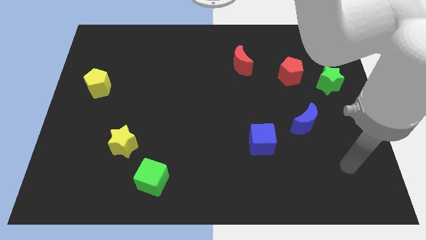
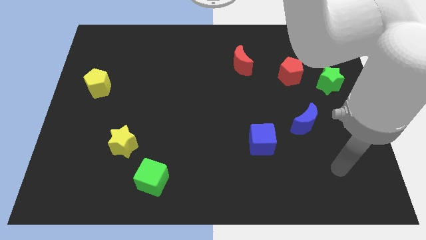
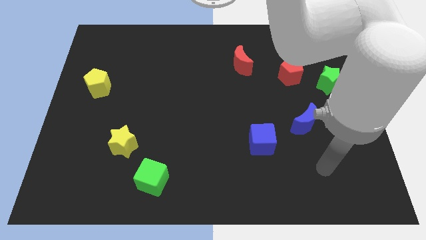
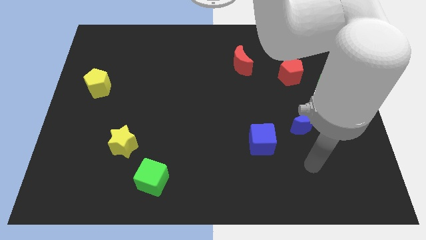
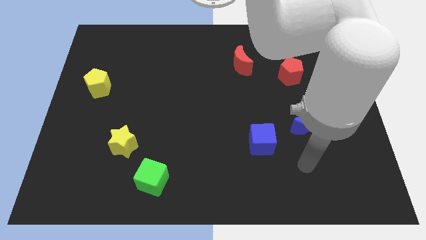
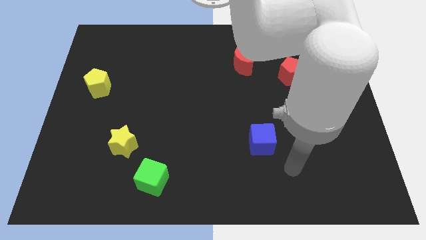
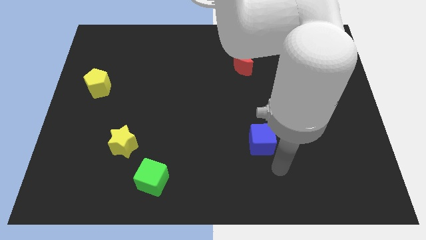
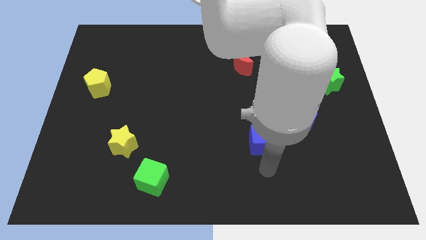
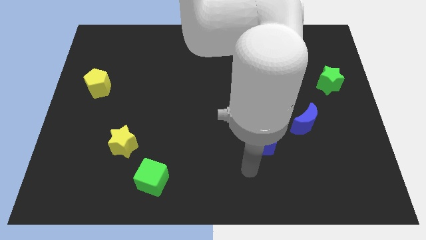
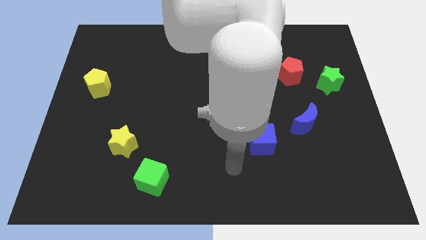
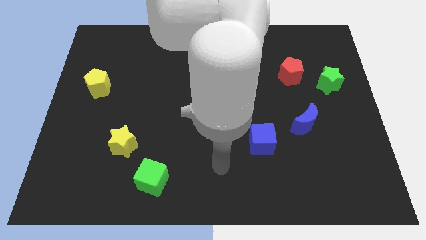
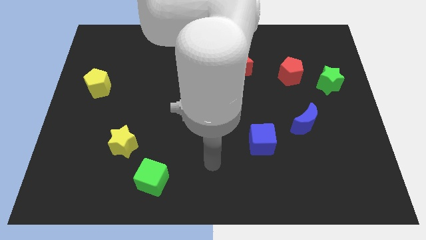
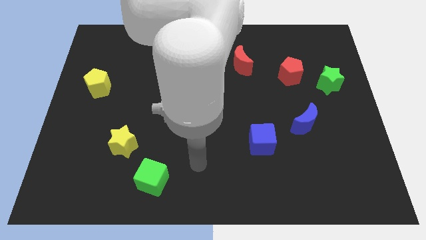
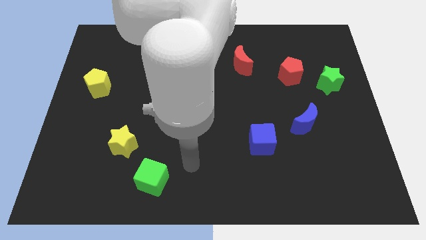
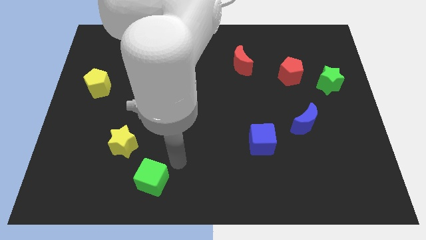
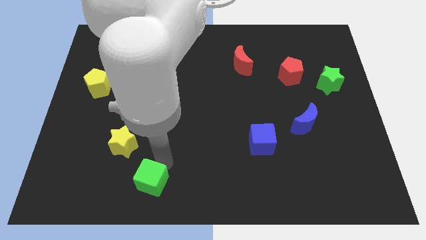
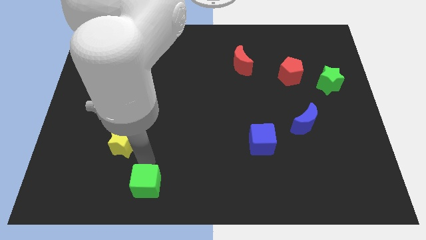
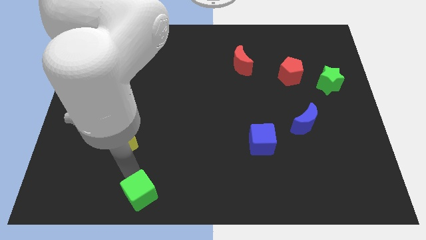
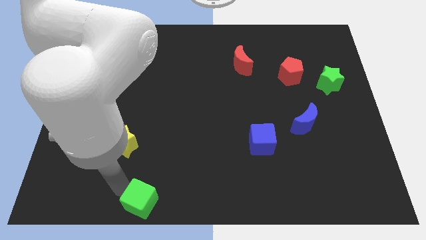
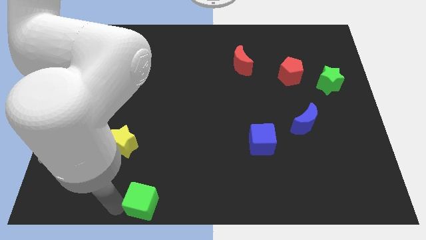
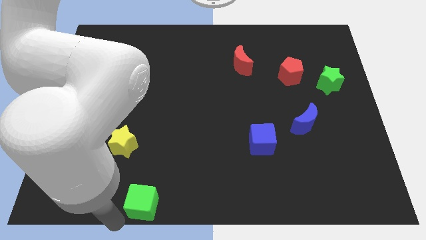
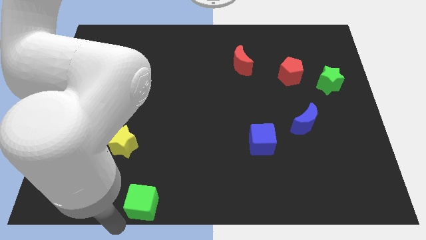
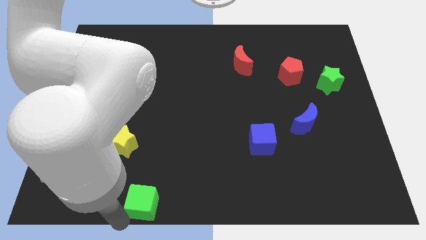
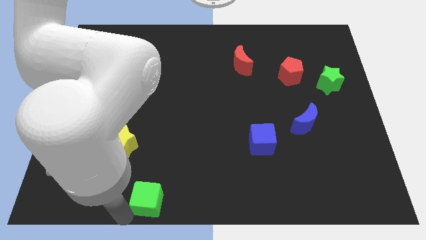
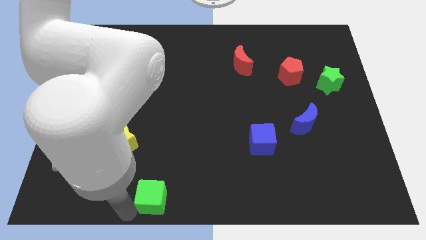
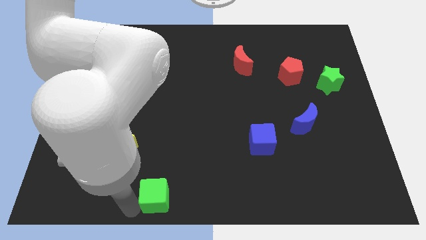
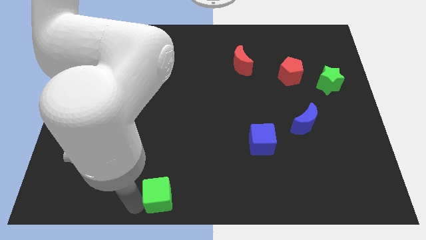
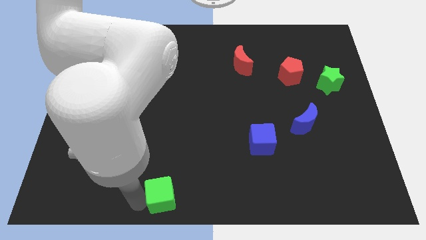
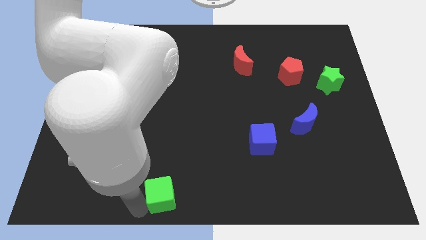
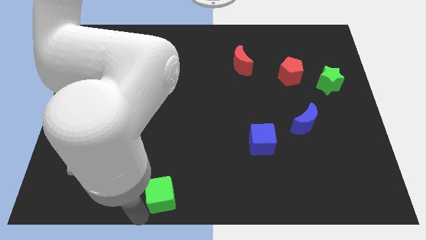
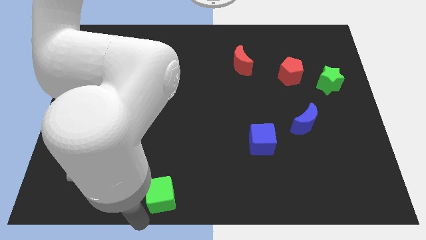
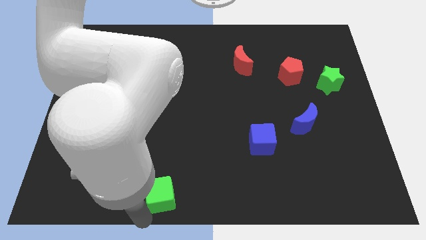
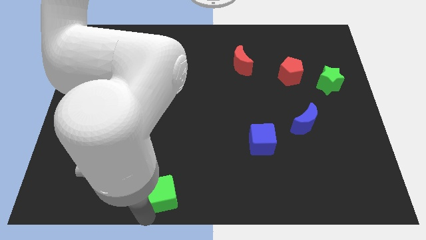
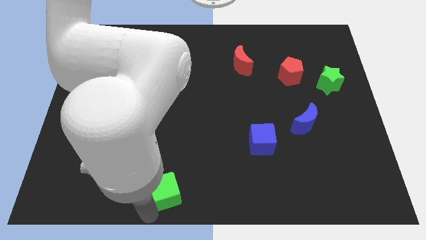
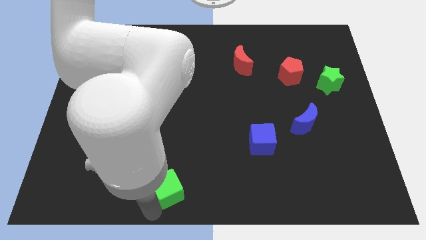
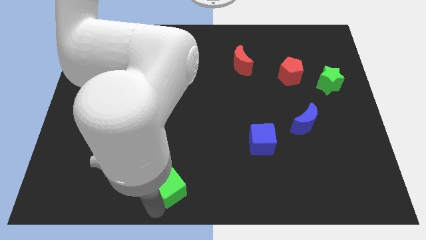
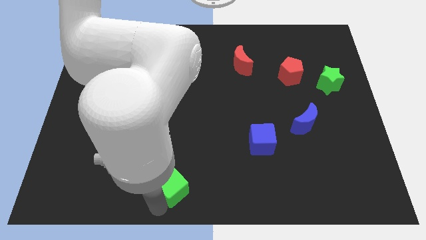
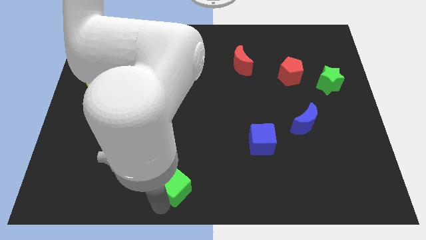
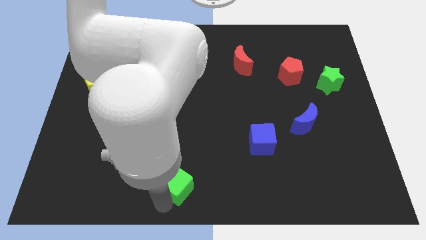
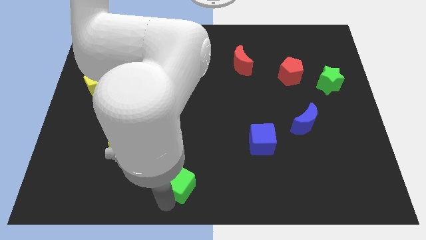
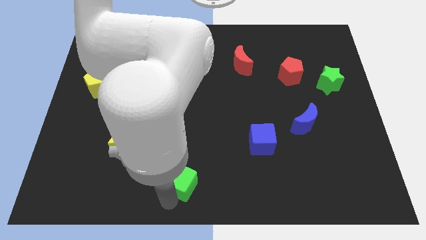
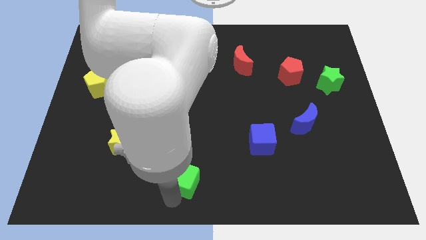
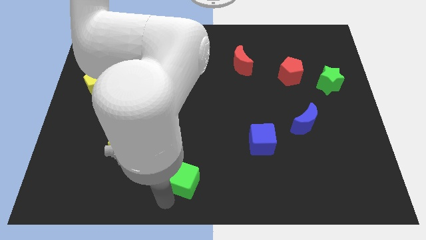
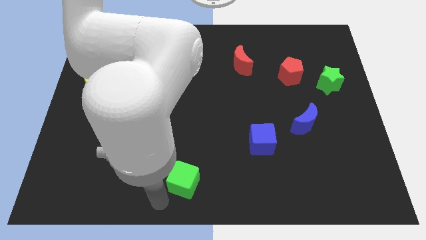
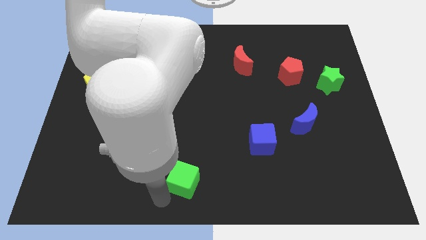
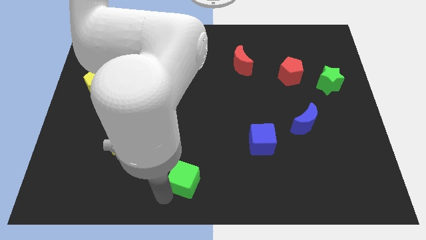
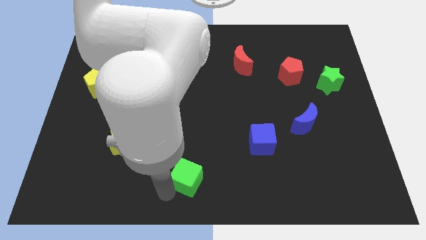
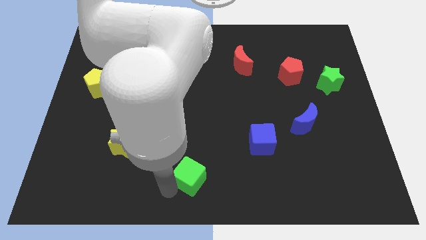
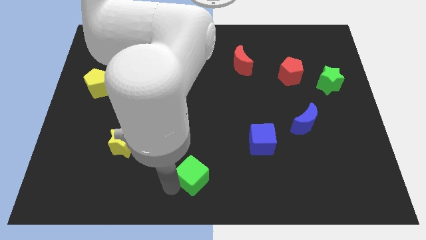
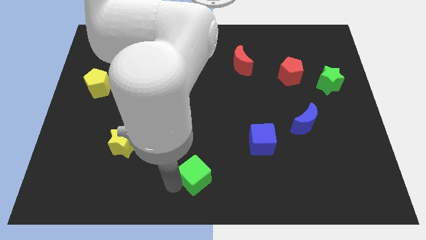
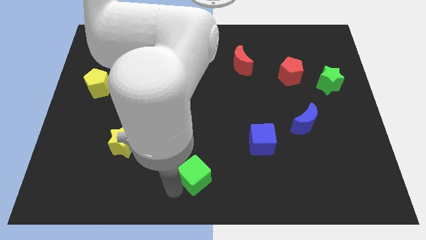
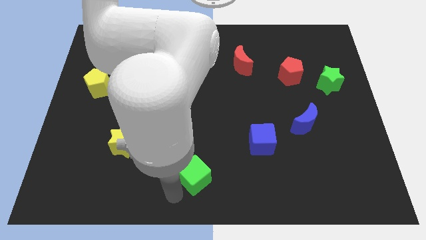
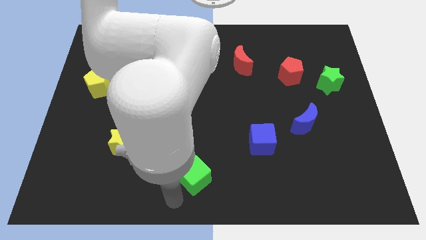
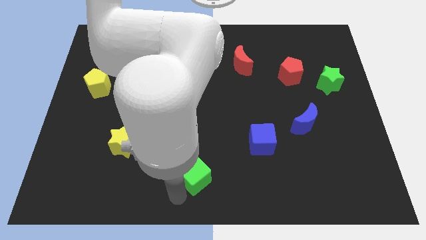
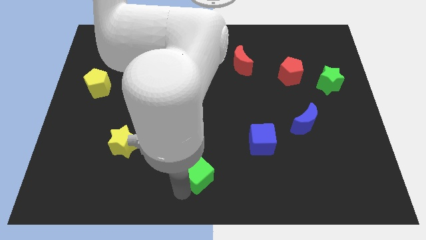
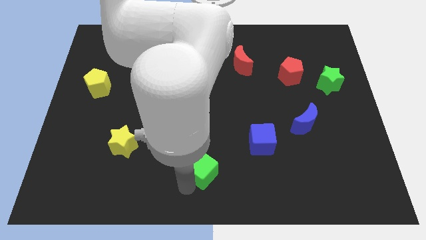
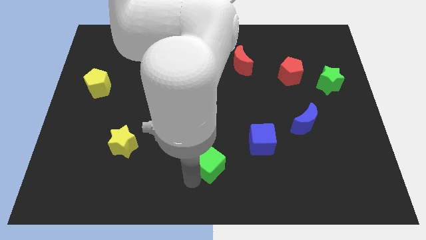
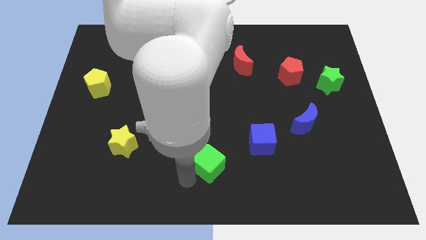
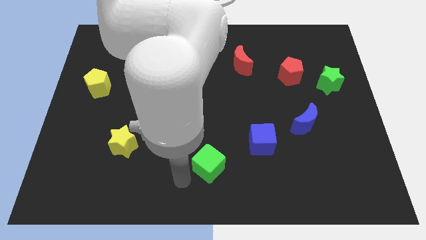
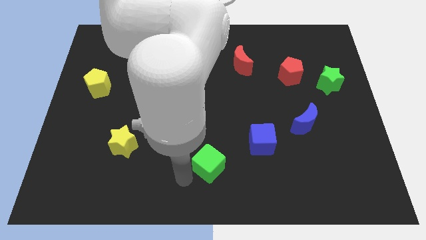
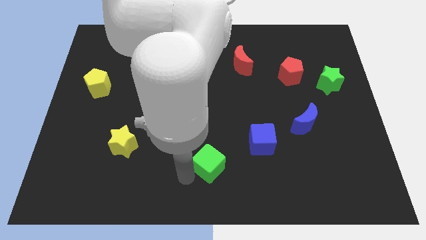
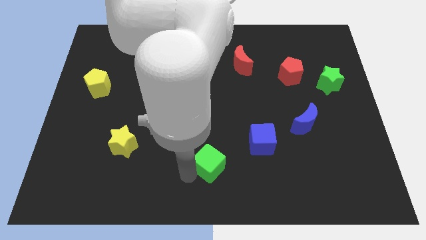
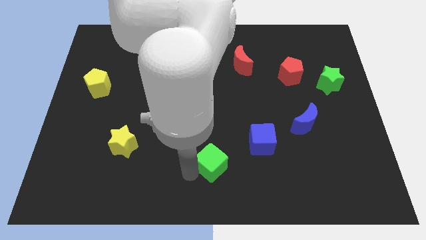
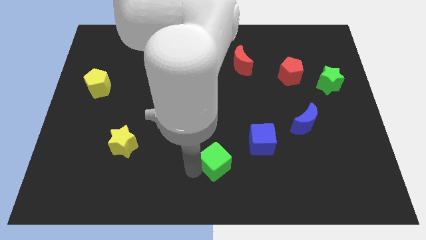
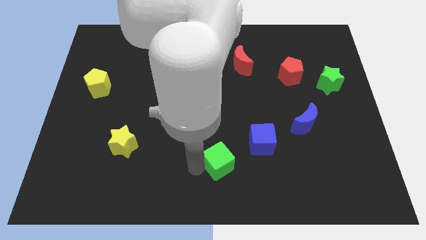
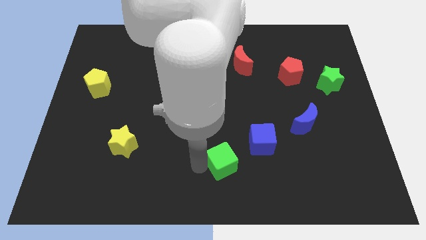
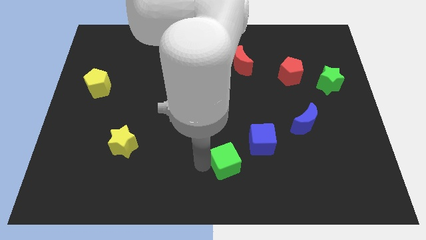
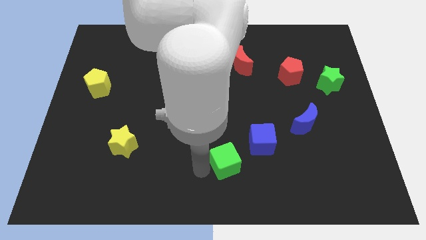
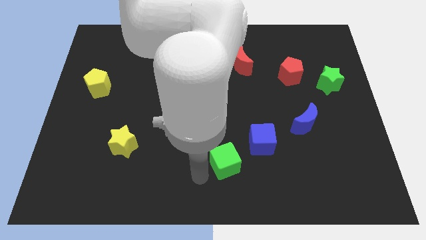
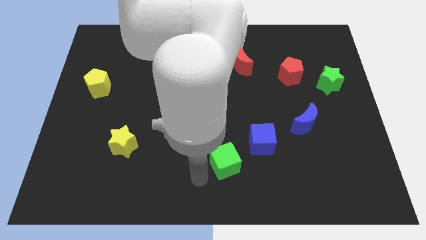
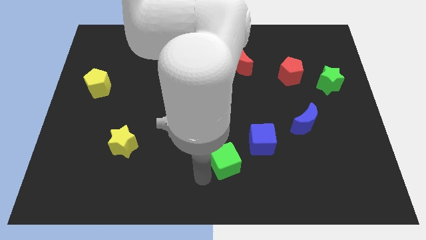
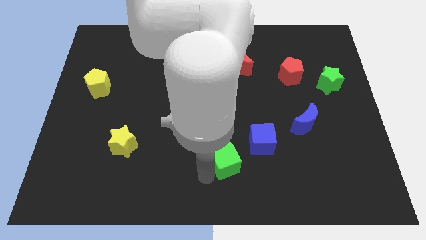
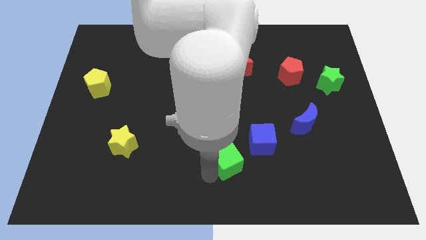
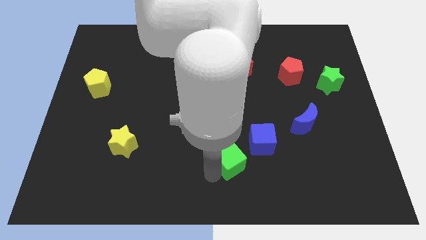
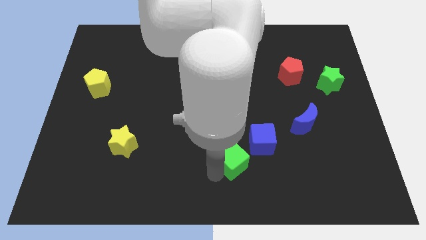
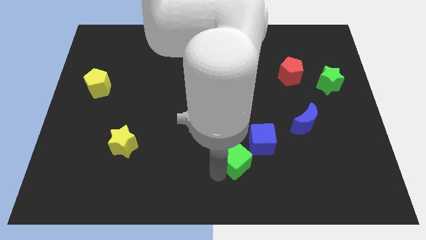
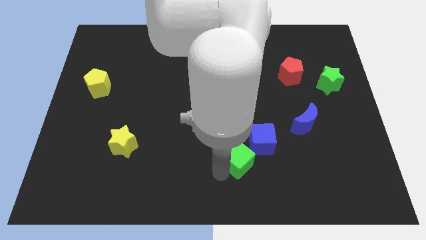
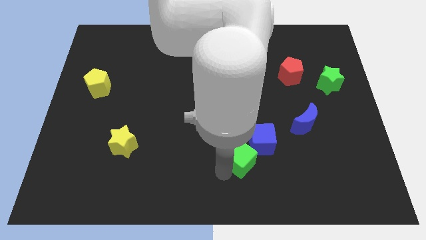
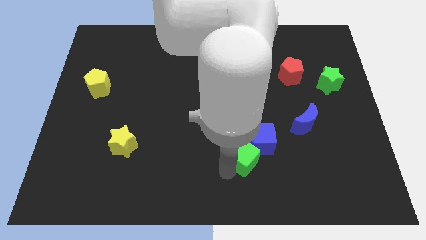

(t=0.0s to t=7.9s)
put the green cube to the blue cube
